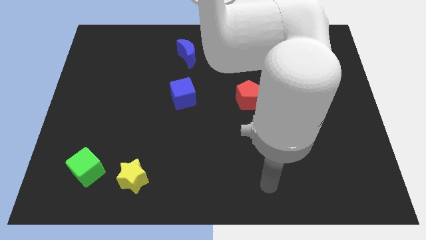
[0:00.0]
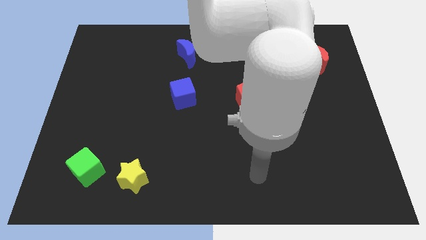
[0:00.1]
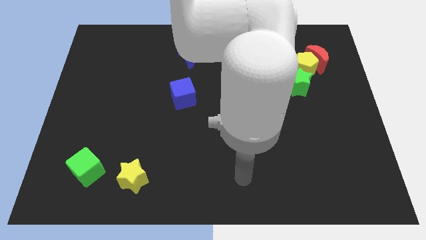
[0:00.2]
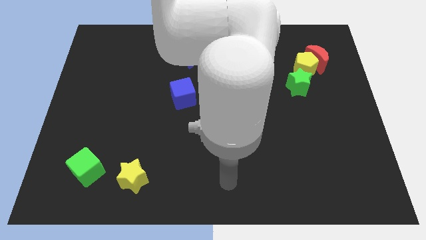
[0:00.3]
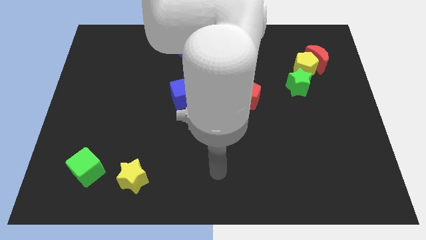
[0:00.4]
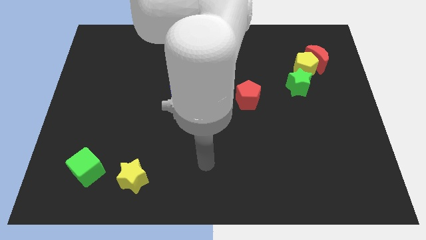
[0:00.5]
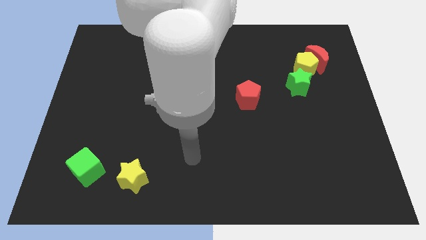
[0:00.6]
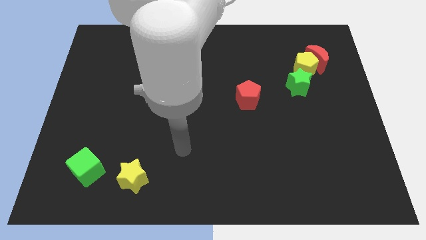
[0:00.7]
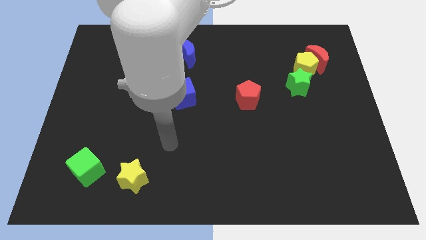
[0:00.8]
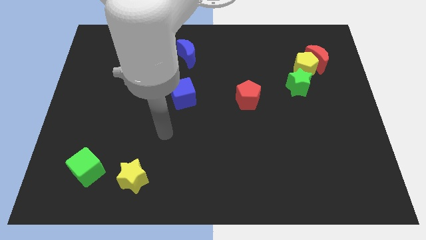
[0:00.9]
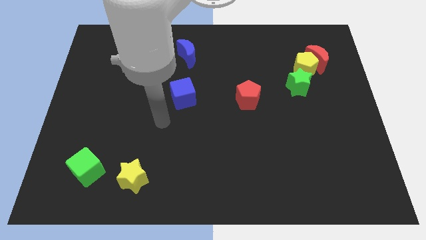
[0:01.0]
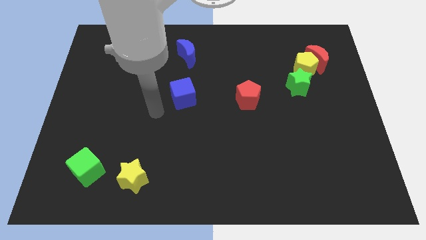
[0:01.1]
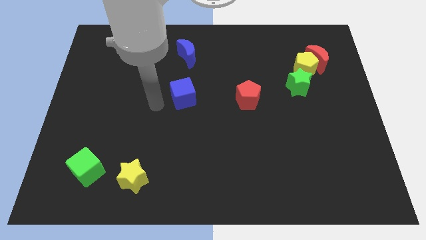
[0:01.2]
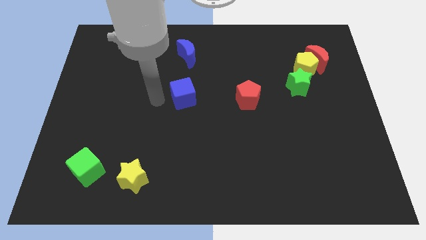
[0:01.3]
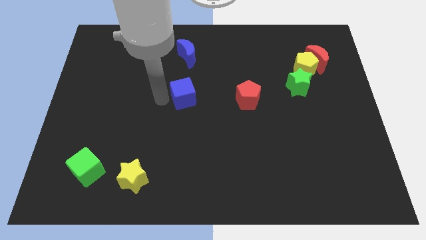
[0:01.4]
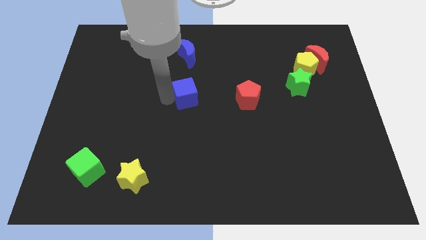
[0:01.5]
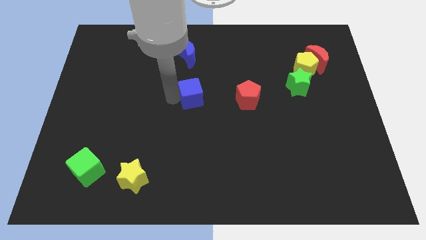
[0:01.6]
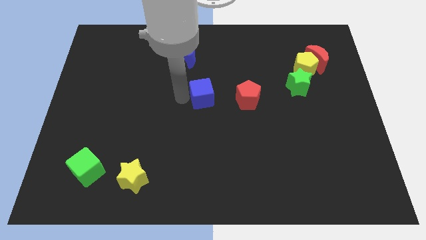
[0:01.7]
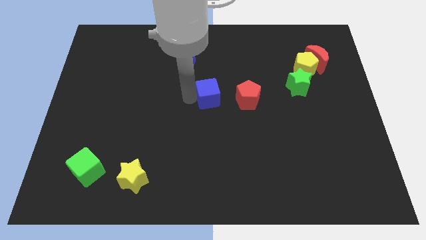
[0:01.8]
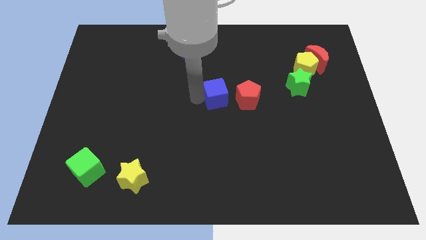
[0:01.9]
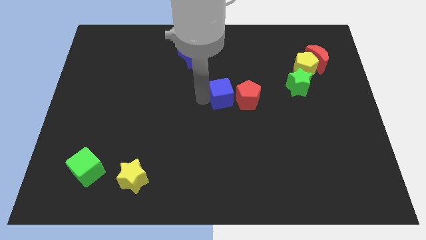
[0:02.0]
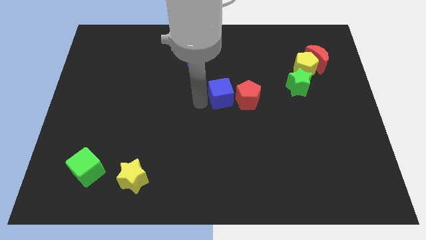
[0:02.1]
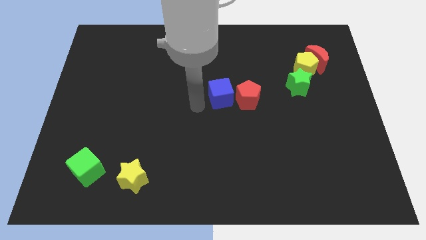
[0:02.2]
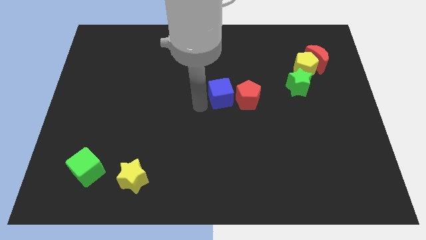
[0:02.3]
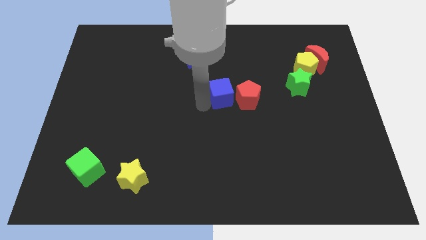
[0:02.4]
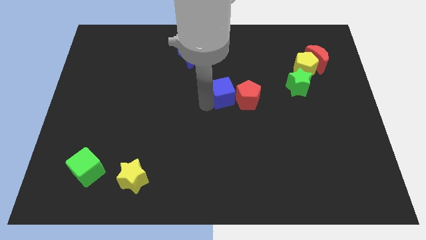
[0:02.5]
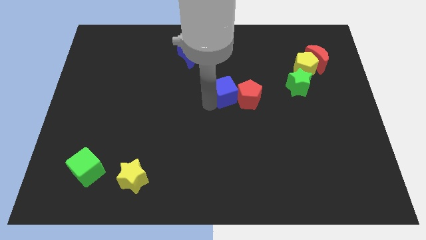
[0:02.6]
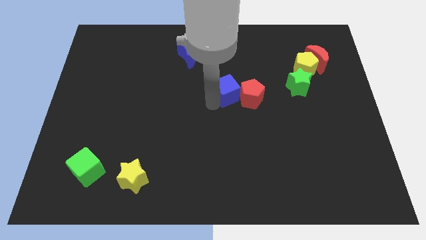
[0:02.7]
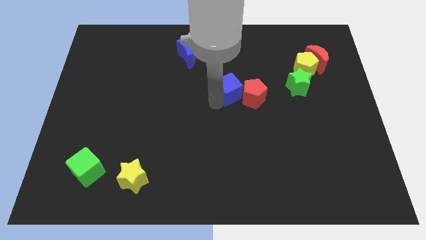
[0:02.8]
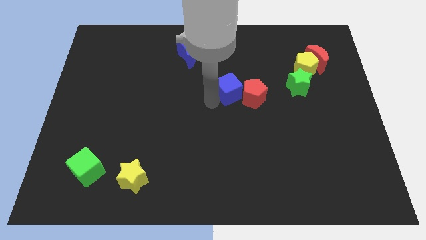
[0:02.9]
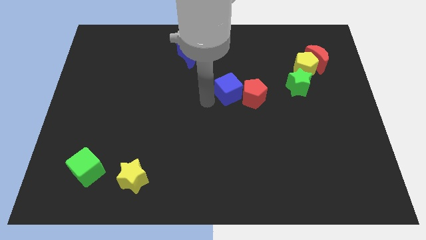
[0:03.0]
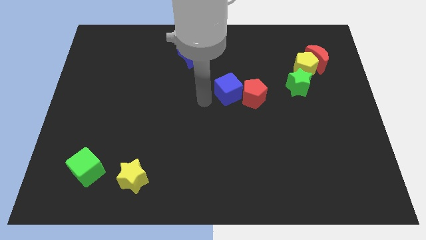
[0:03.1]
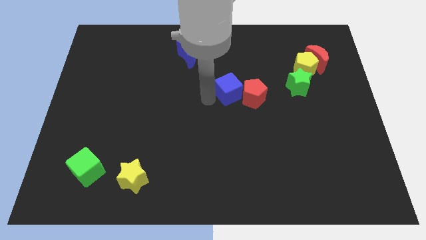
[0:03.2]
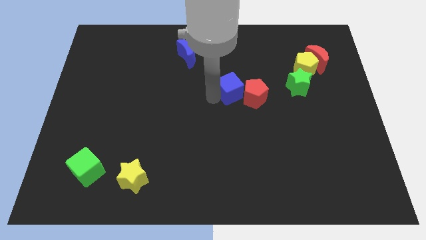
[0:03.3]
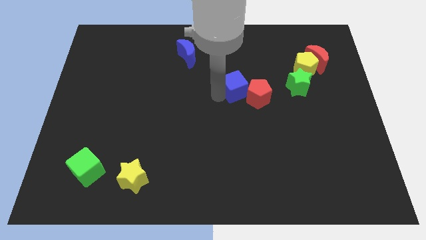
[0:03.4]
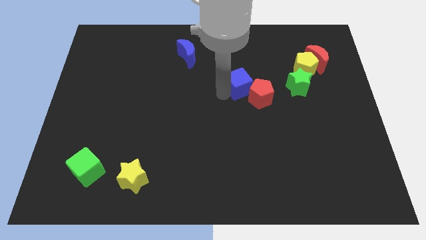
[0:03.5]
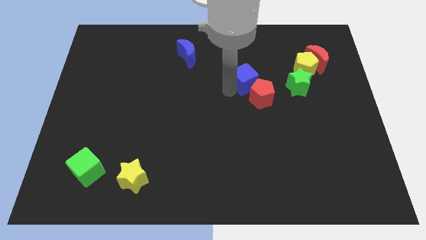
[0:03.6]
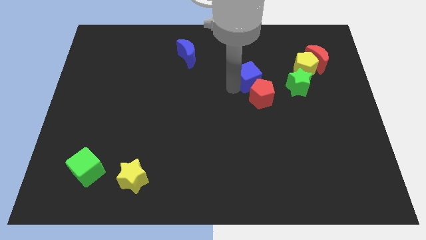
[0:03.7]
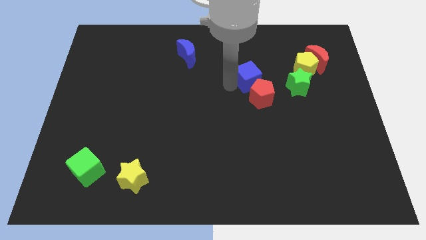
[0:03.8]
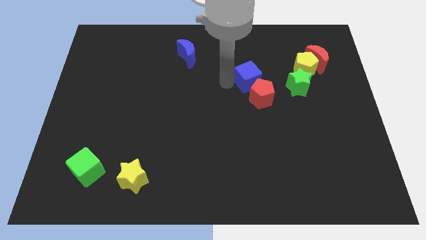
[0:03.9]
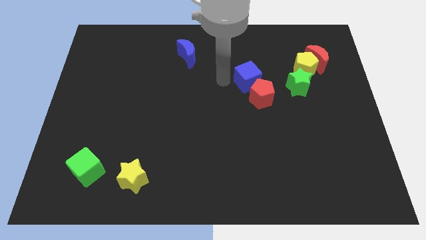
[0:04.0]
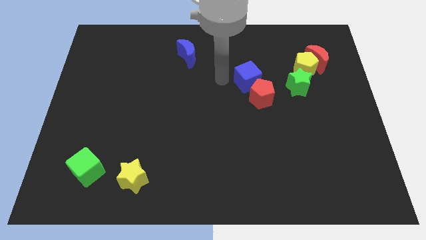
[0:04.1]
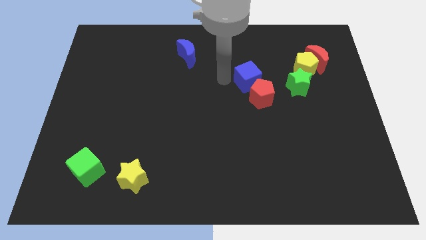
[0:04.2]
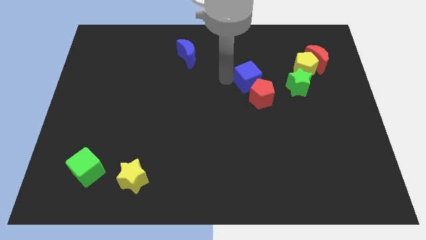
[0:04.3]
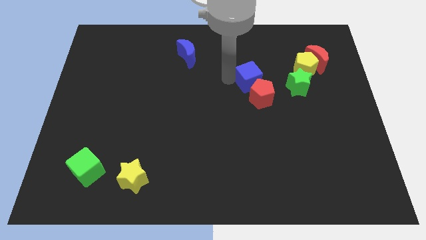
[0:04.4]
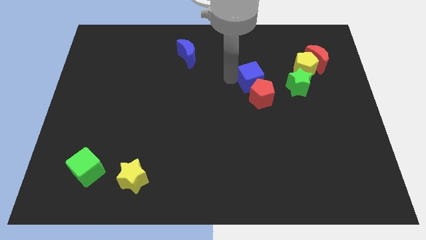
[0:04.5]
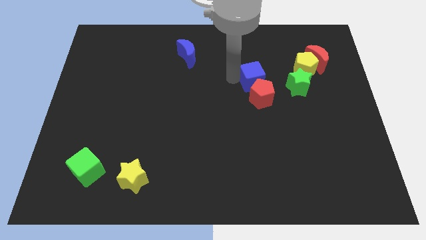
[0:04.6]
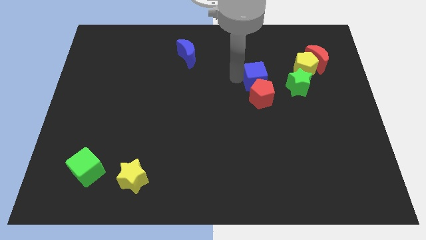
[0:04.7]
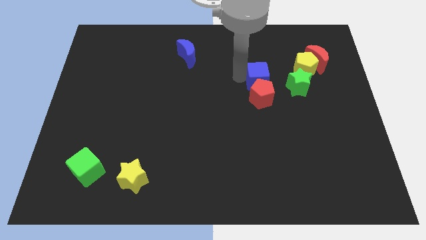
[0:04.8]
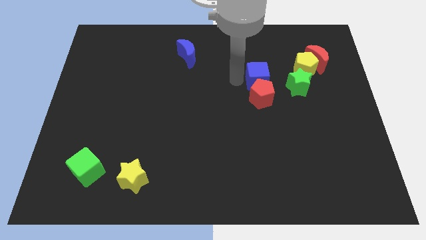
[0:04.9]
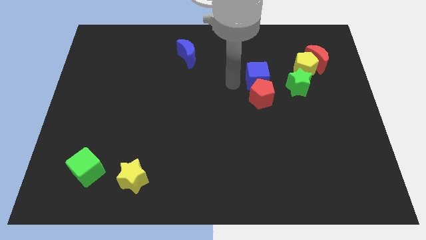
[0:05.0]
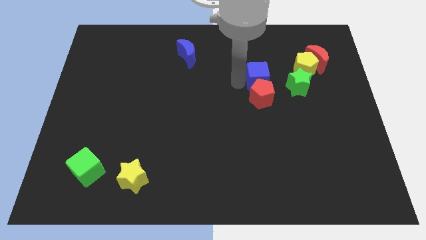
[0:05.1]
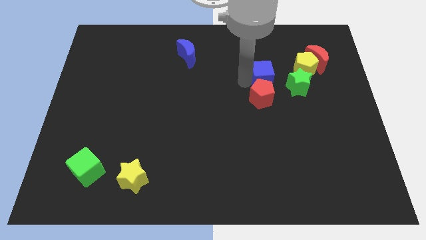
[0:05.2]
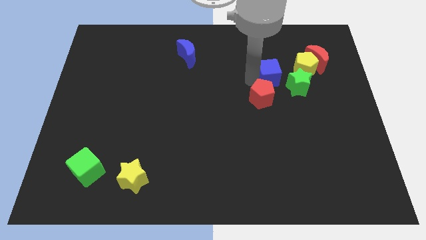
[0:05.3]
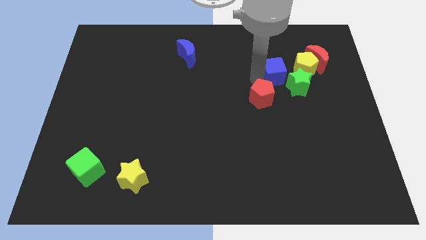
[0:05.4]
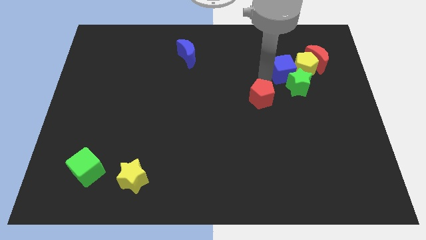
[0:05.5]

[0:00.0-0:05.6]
slide the blue cube to the yellow pentagon

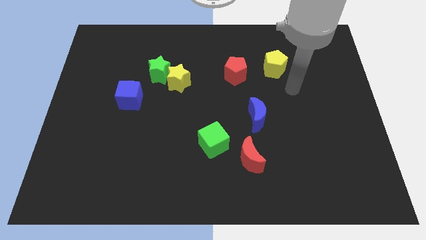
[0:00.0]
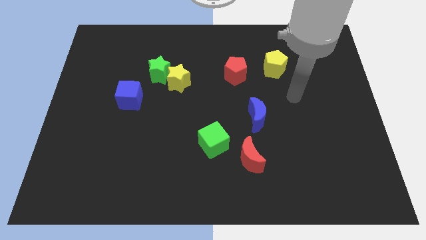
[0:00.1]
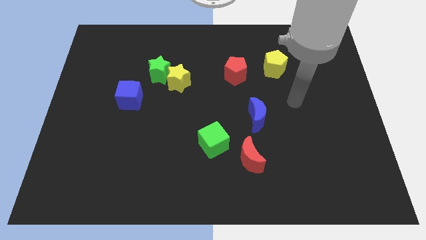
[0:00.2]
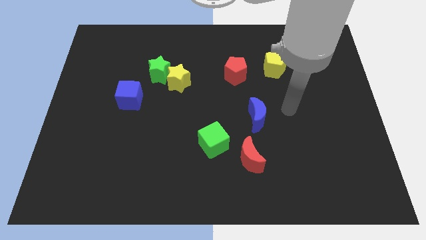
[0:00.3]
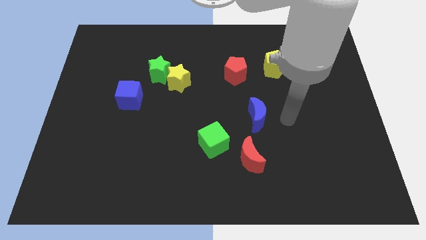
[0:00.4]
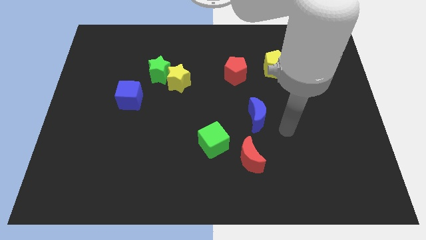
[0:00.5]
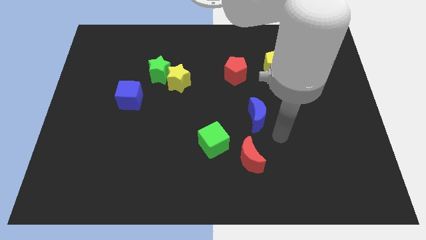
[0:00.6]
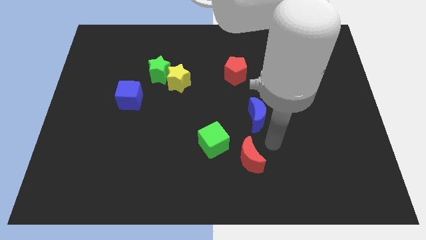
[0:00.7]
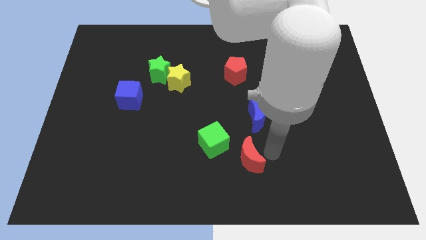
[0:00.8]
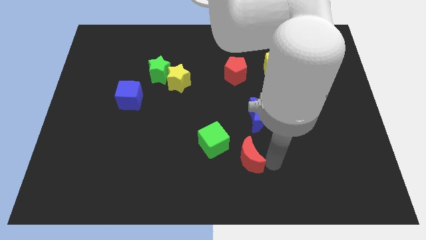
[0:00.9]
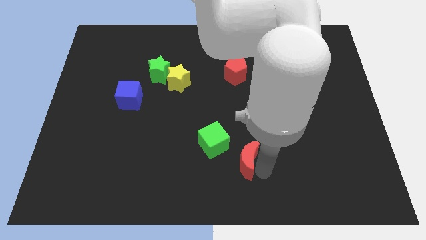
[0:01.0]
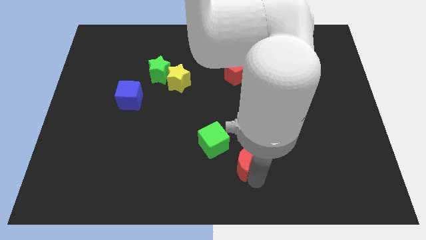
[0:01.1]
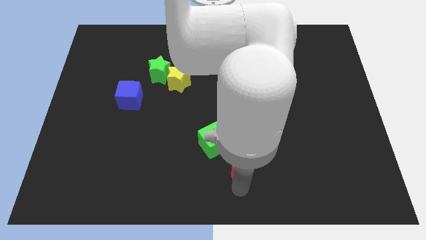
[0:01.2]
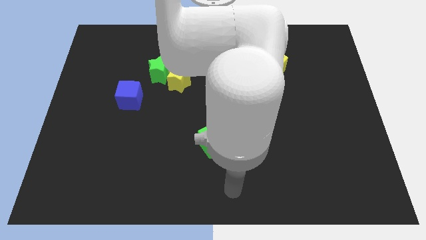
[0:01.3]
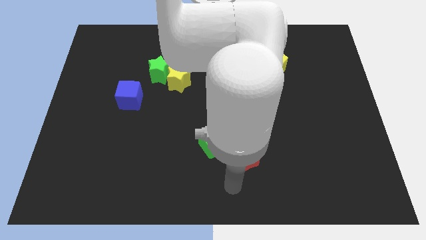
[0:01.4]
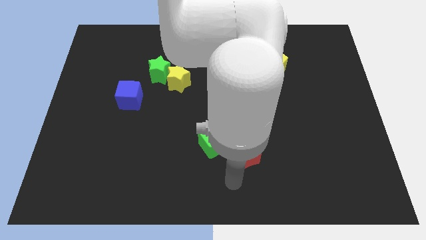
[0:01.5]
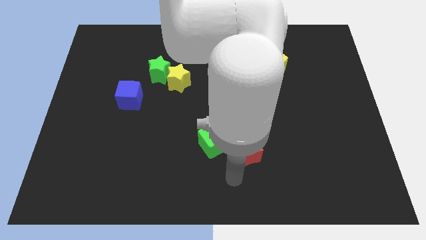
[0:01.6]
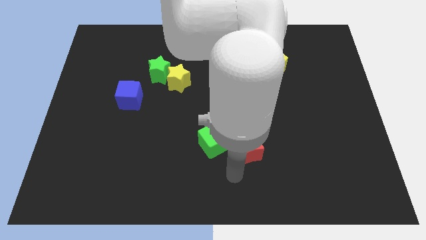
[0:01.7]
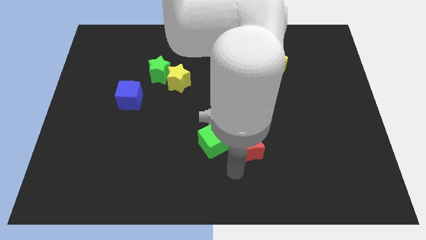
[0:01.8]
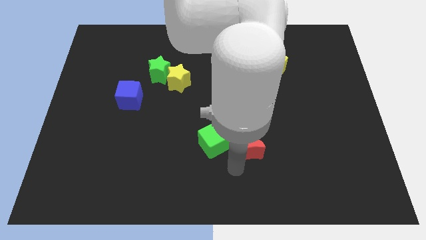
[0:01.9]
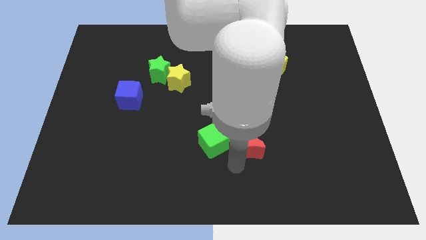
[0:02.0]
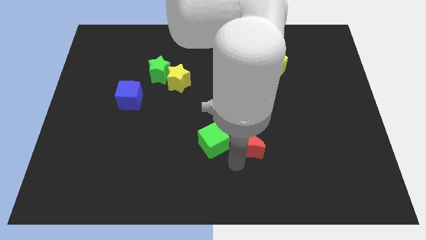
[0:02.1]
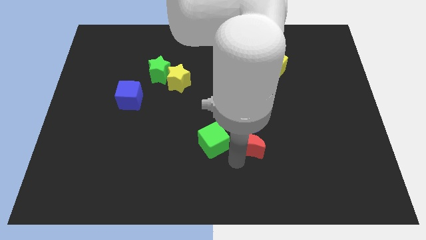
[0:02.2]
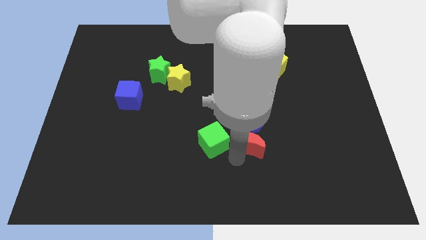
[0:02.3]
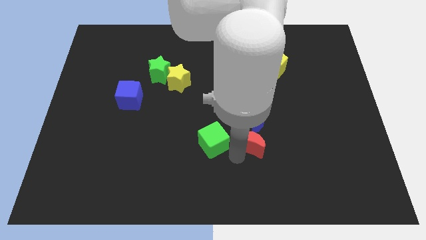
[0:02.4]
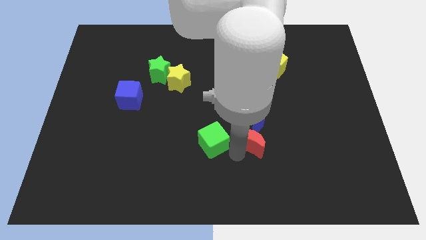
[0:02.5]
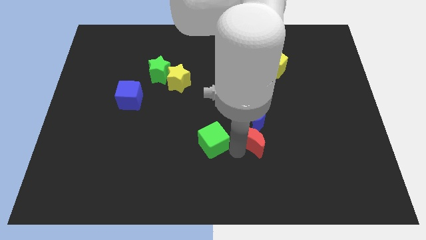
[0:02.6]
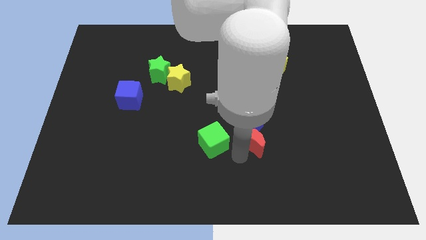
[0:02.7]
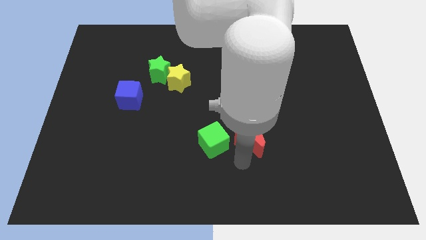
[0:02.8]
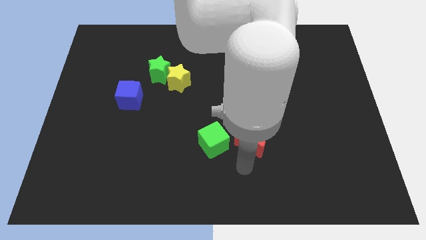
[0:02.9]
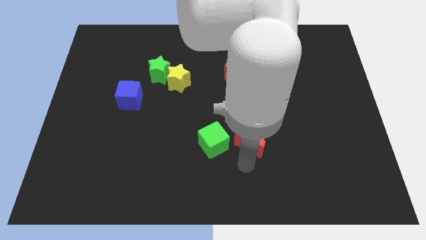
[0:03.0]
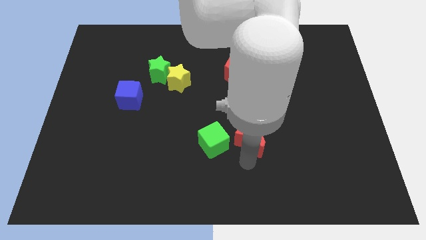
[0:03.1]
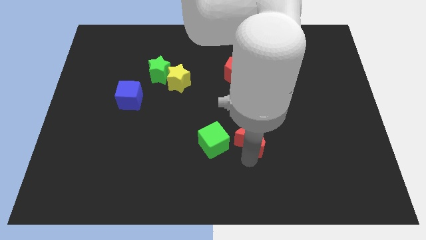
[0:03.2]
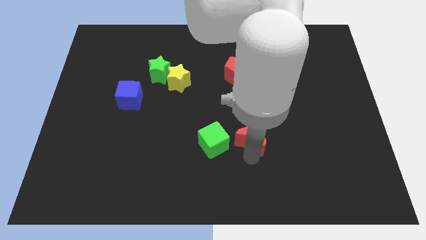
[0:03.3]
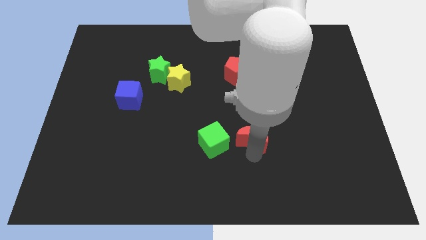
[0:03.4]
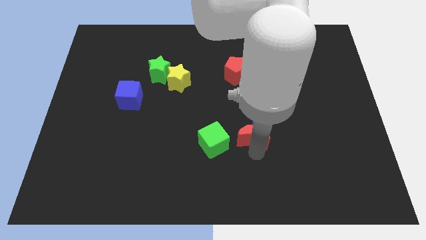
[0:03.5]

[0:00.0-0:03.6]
move the red moon to the blue moon
